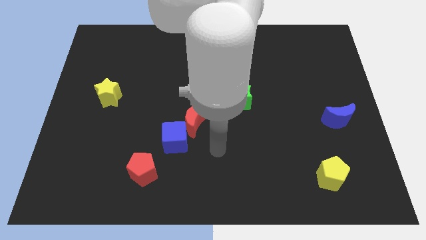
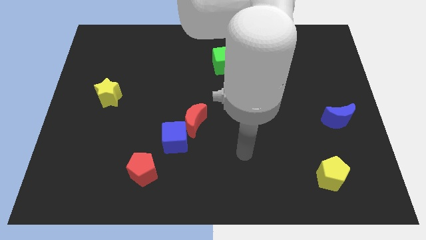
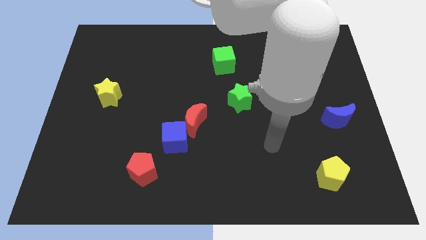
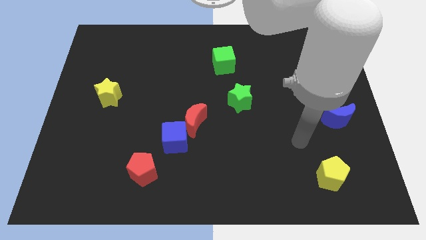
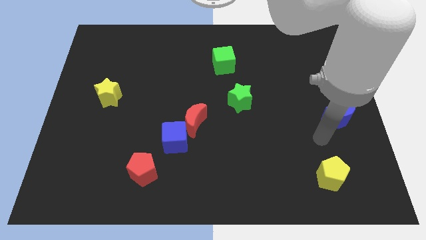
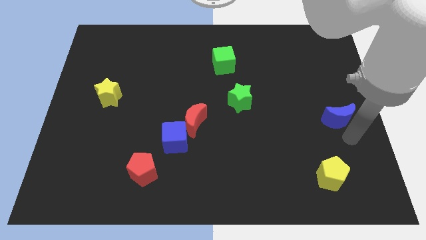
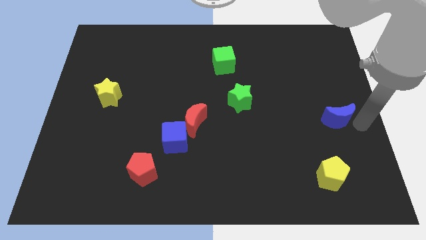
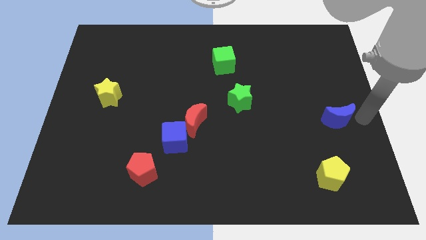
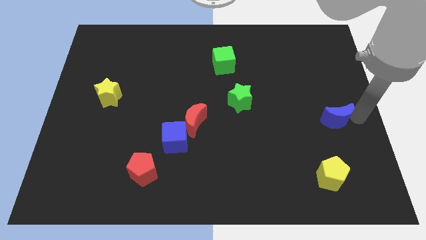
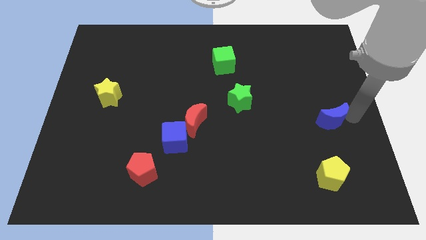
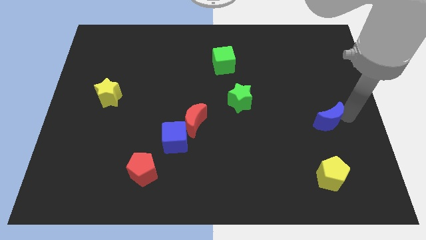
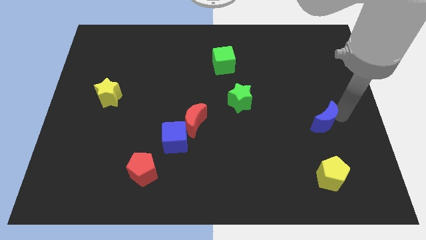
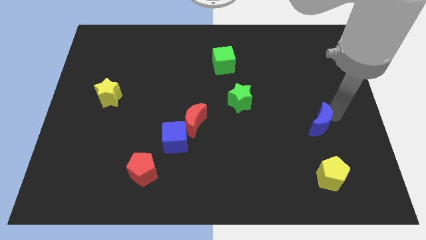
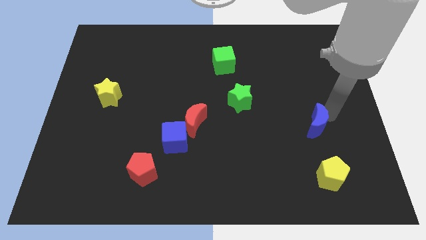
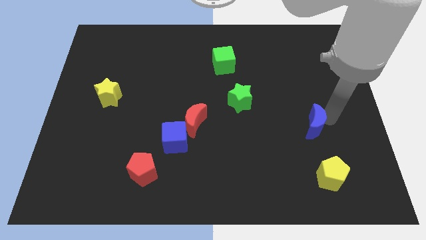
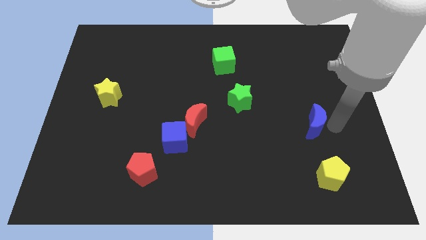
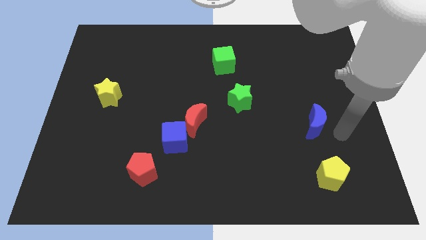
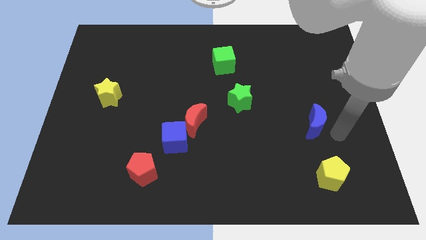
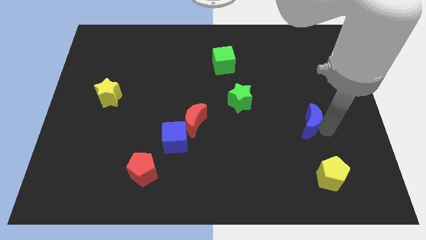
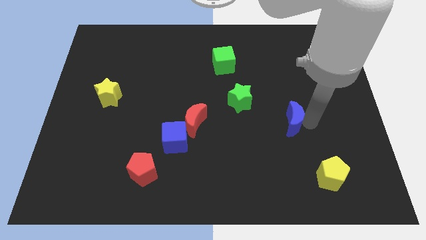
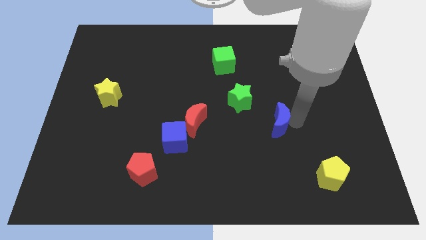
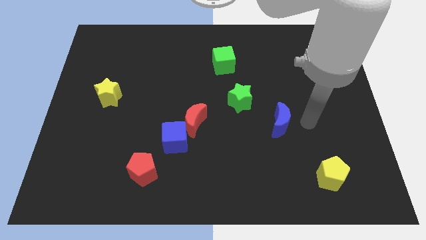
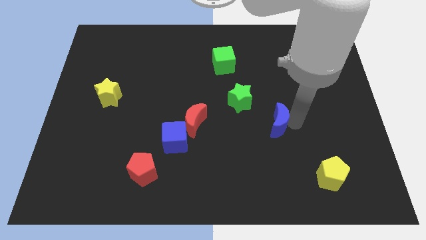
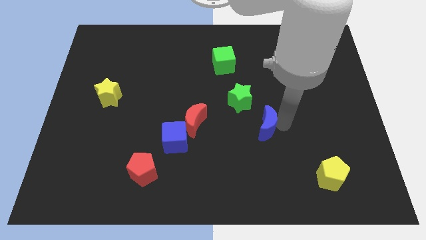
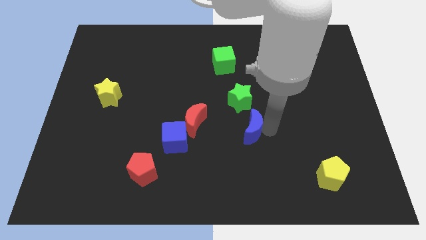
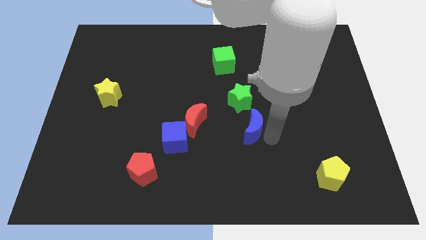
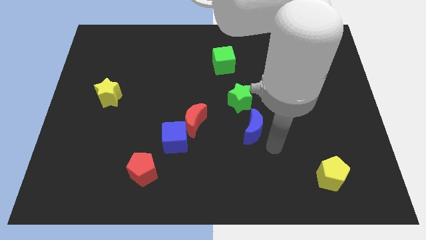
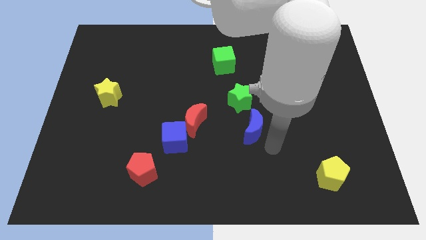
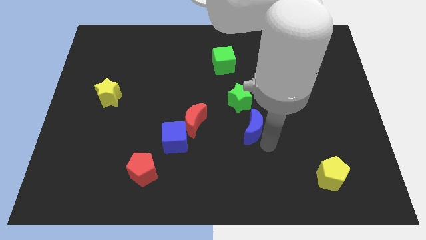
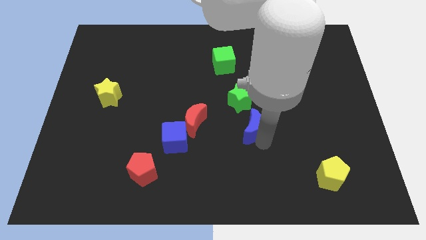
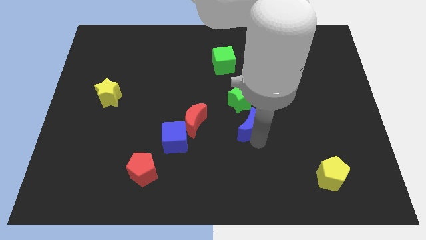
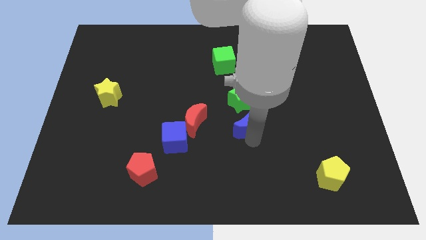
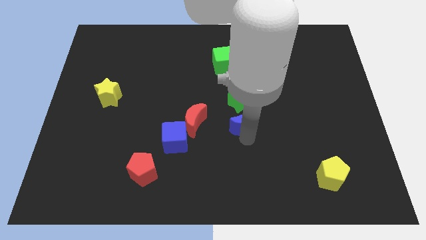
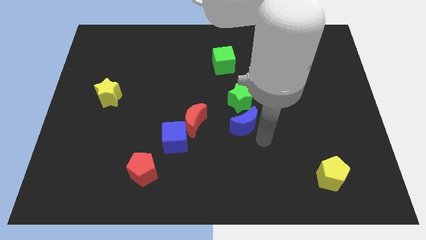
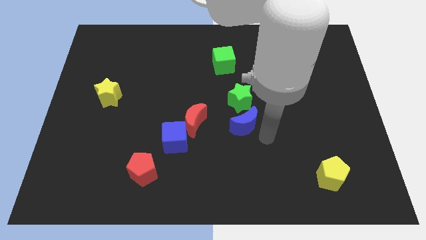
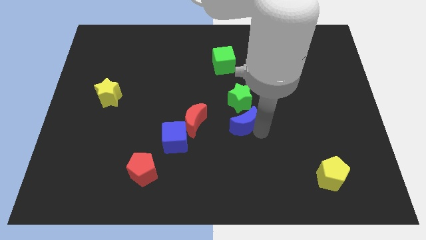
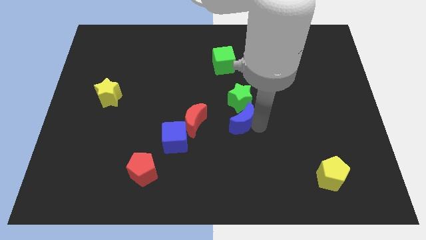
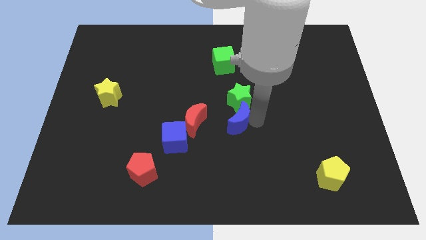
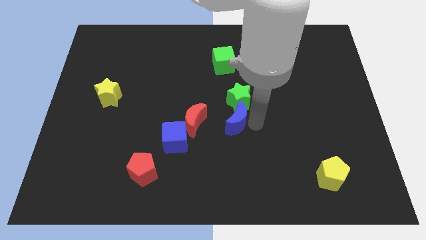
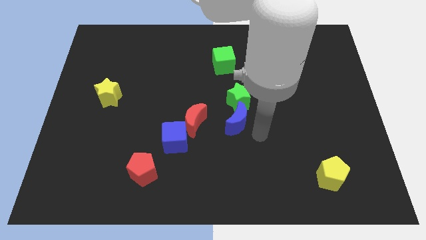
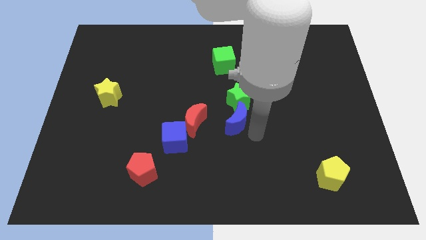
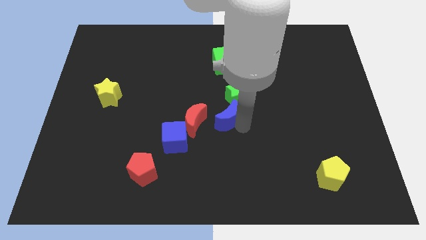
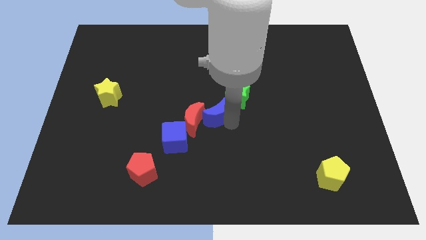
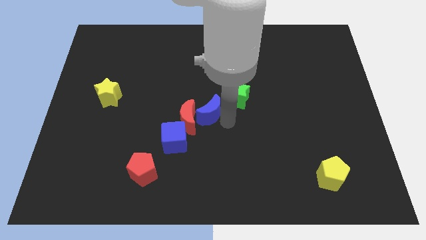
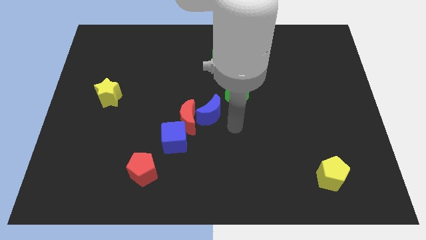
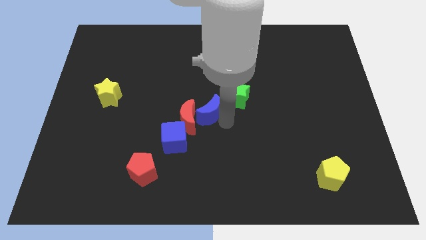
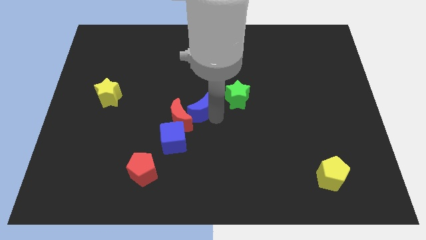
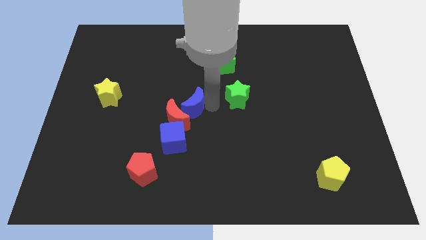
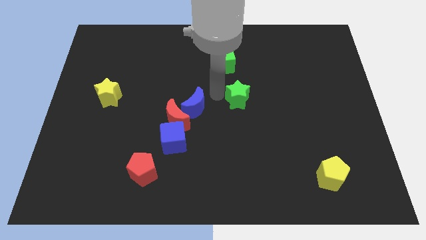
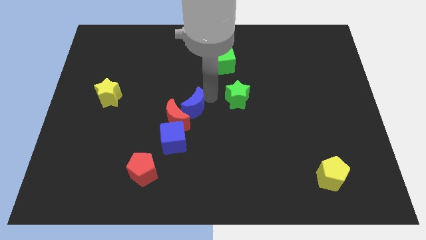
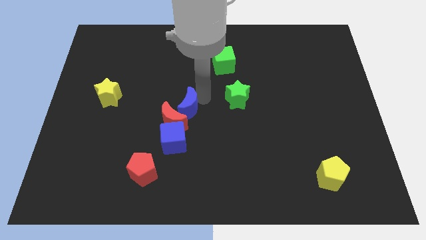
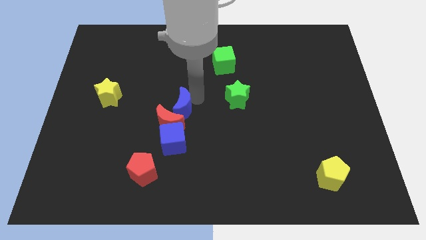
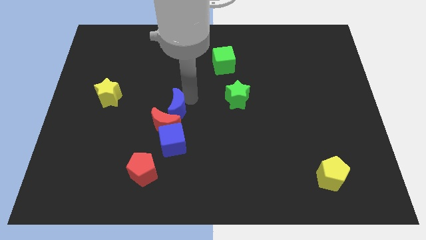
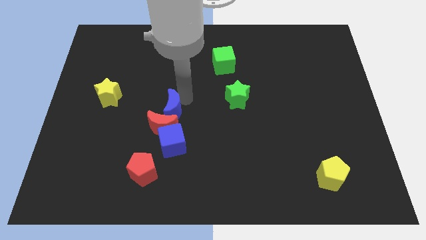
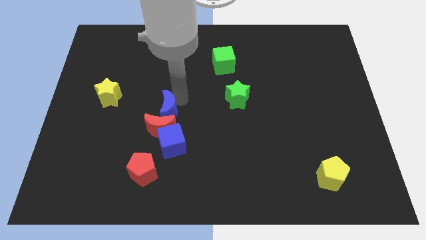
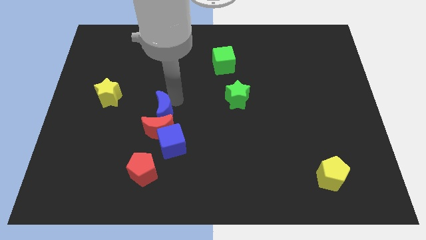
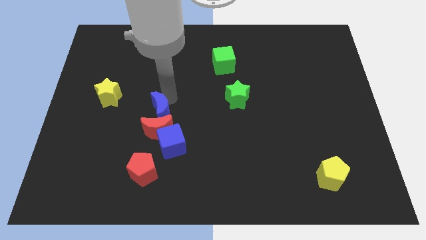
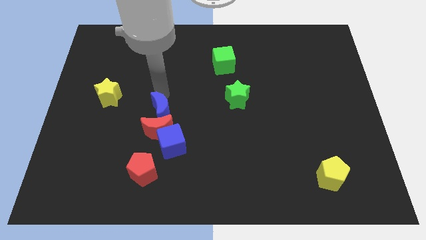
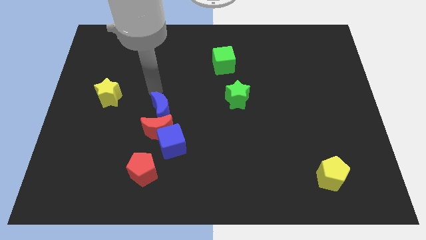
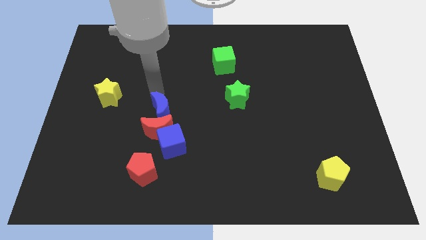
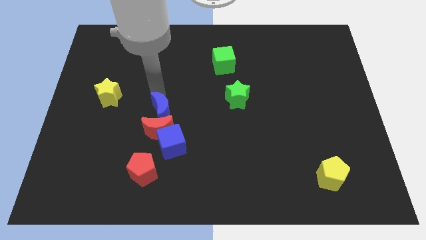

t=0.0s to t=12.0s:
slide the blue moon above the red pentagon

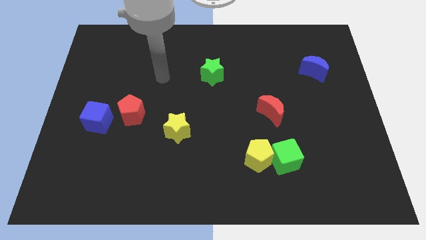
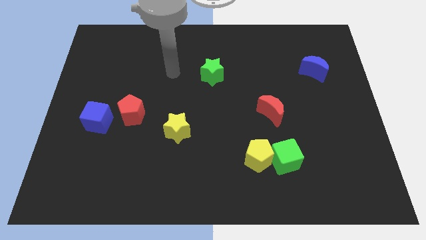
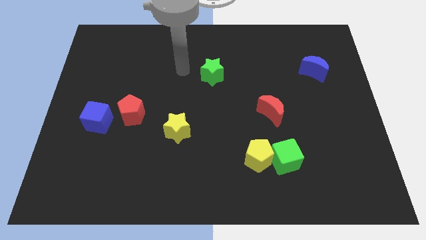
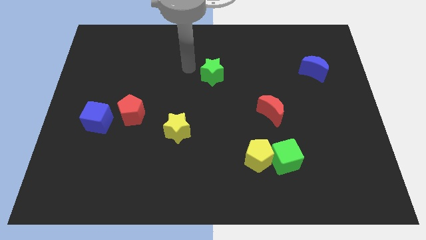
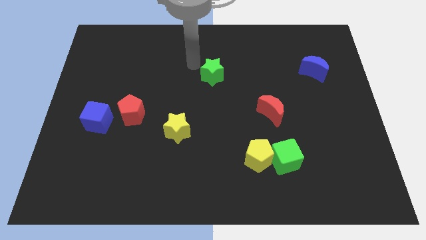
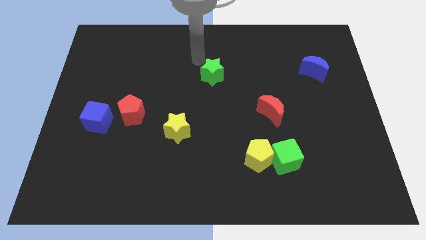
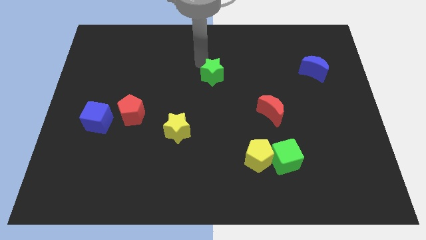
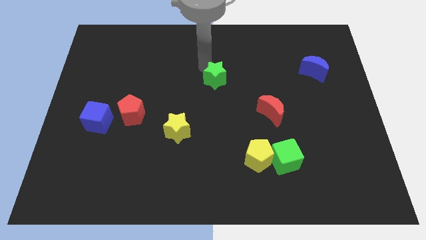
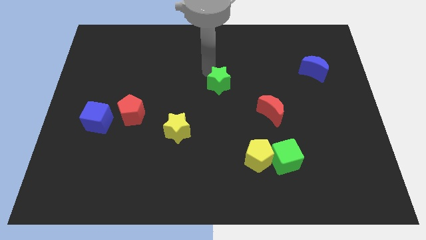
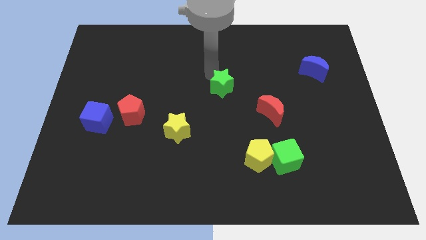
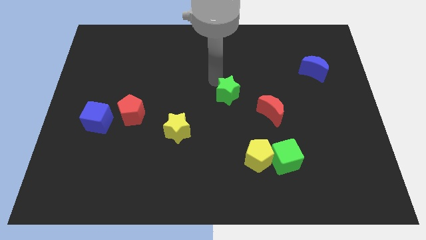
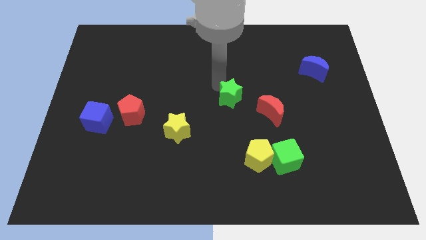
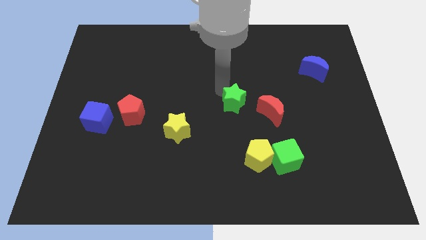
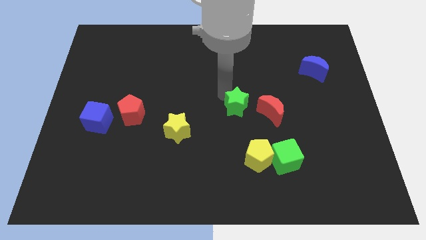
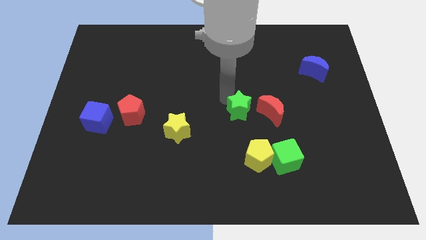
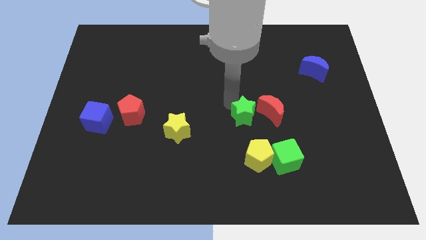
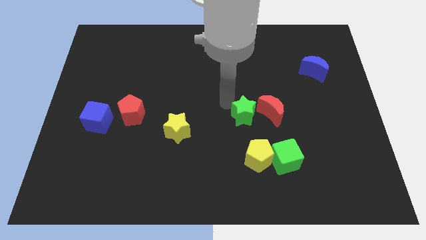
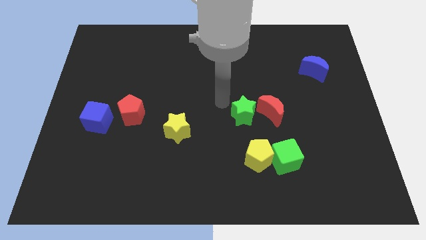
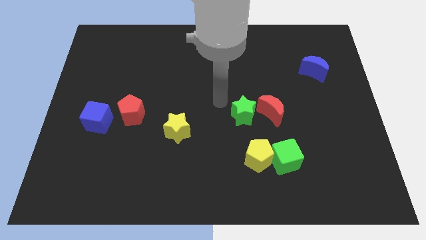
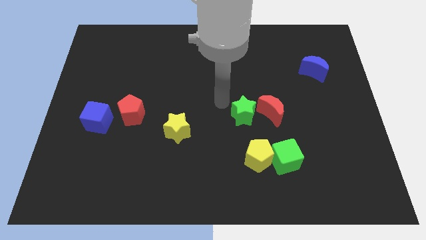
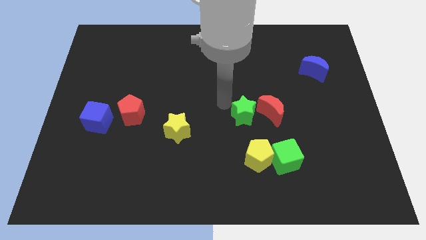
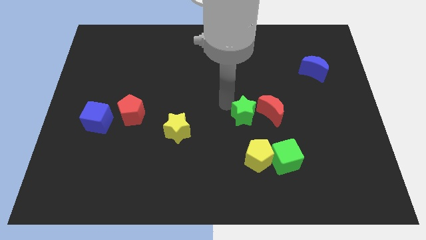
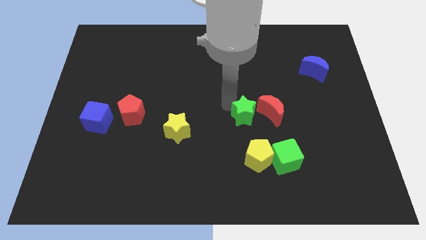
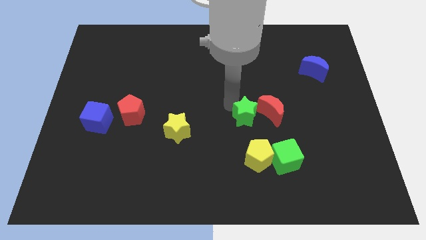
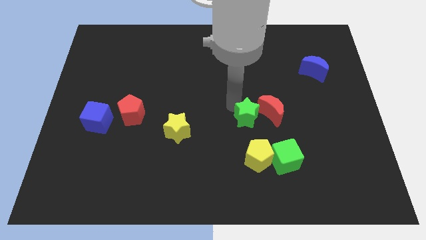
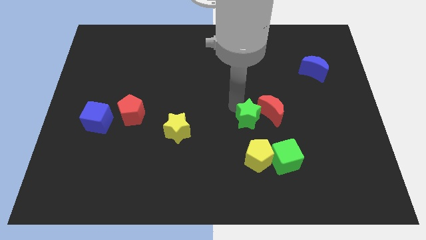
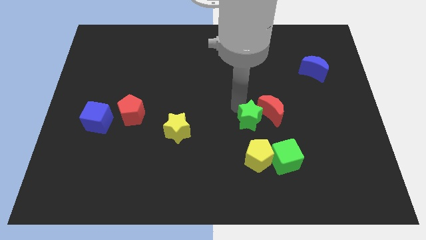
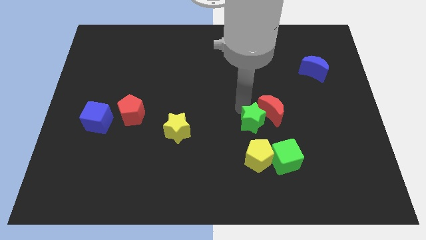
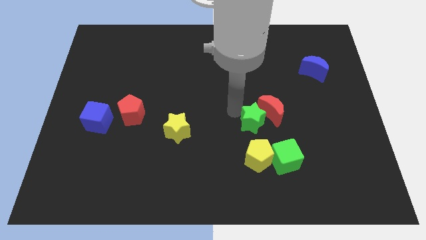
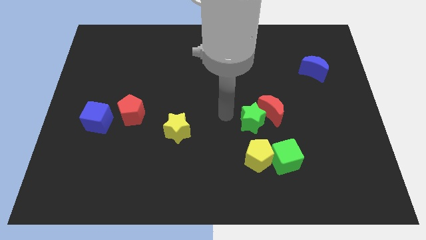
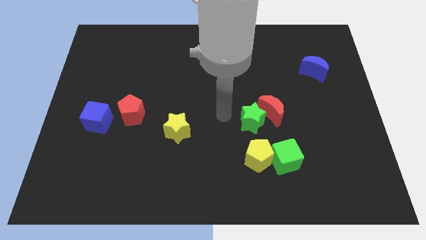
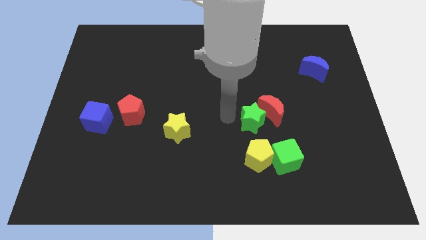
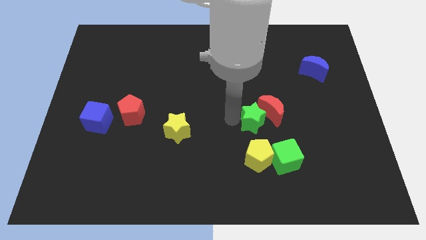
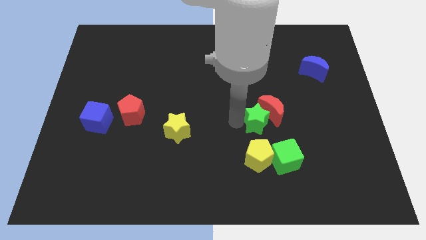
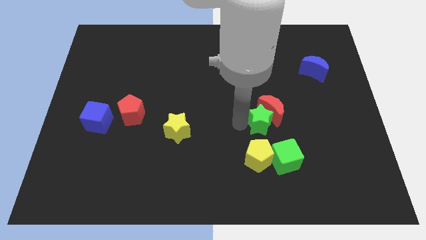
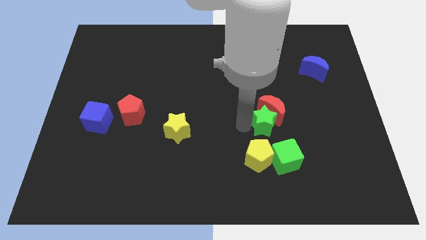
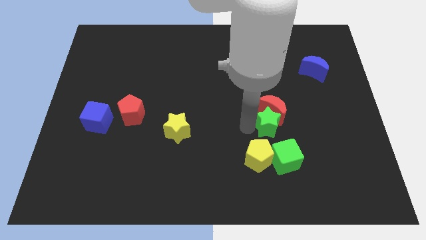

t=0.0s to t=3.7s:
move the green star to the bottom right of the red moon
